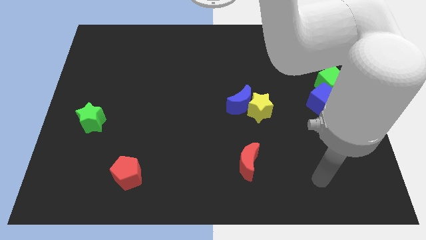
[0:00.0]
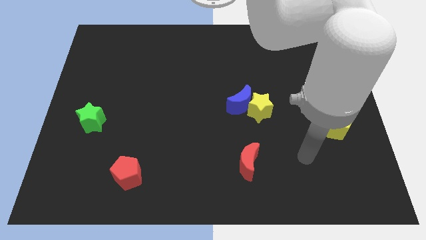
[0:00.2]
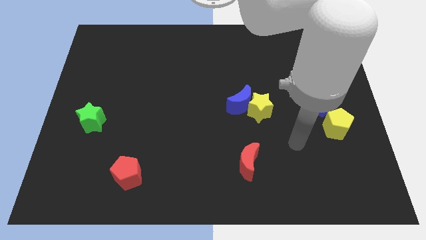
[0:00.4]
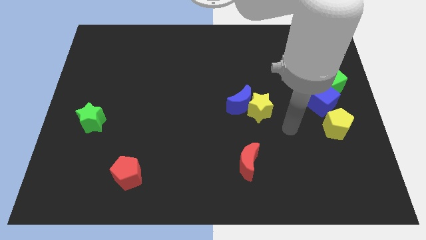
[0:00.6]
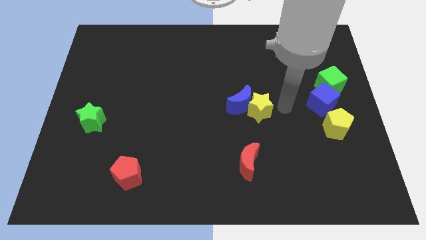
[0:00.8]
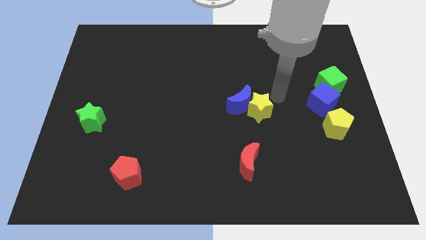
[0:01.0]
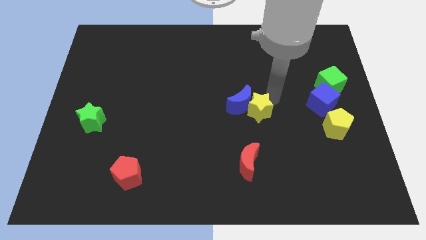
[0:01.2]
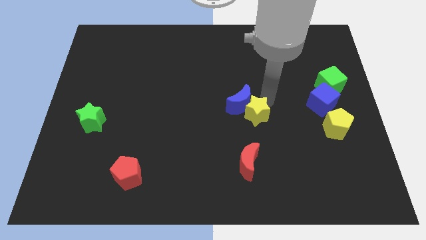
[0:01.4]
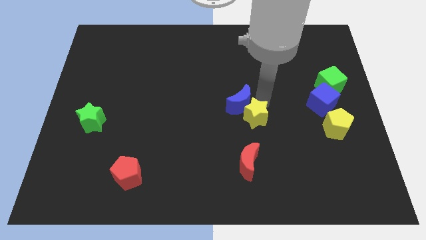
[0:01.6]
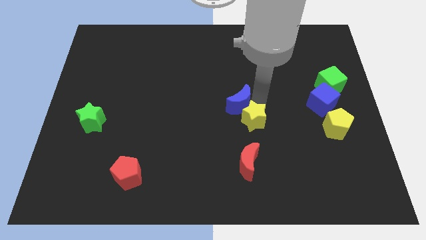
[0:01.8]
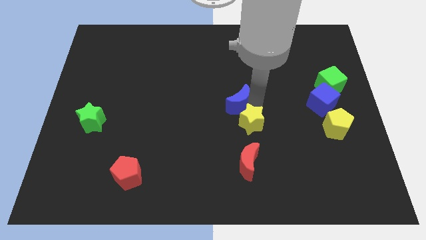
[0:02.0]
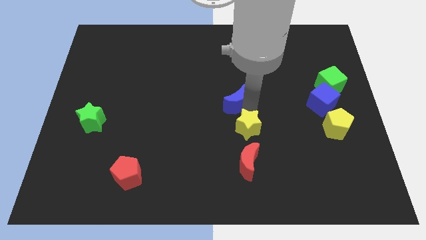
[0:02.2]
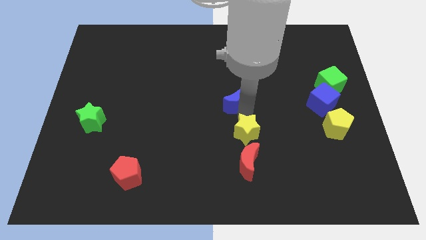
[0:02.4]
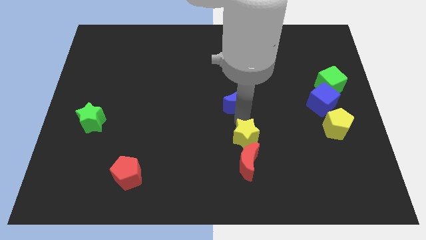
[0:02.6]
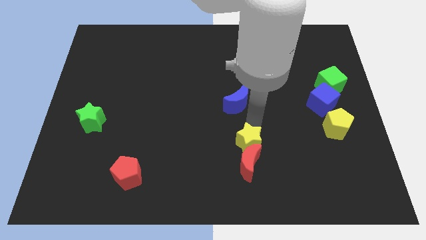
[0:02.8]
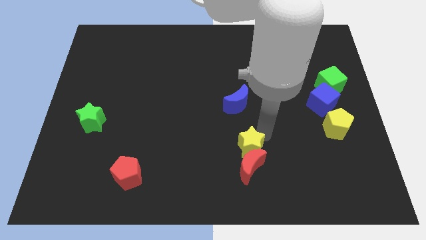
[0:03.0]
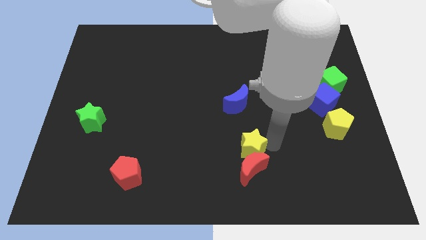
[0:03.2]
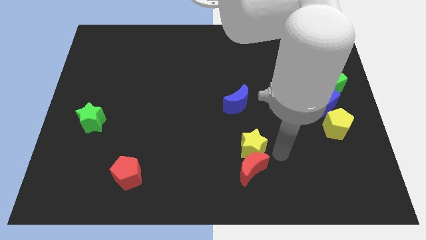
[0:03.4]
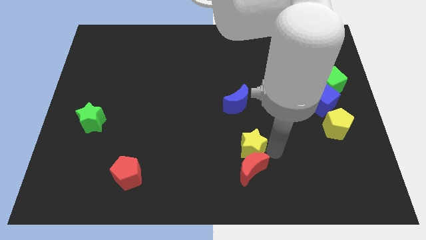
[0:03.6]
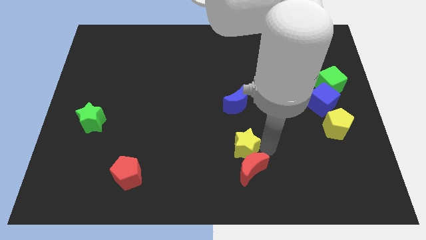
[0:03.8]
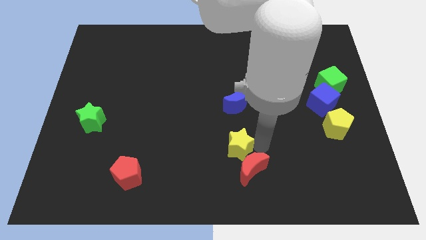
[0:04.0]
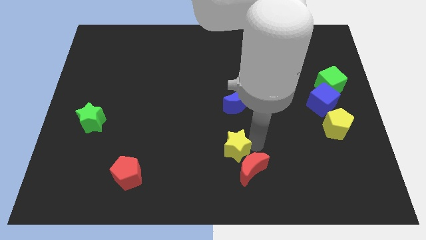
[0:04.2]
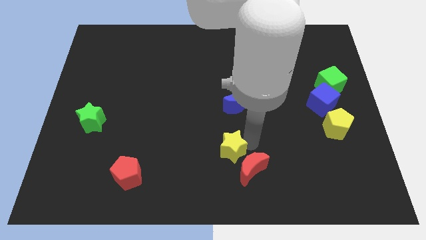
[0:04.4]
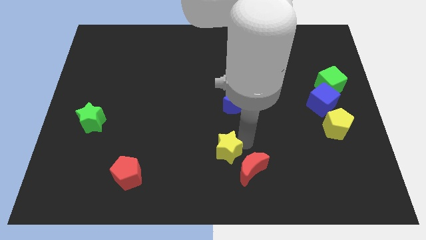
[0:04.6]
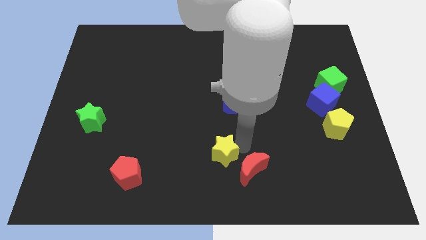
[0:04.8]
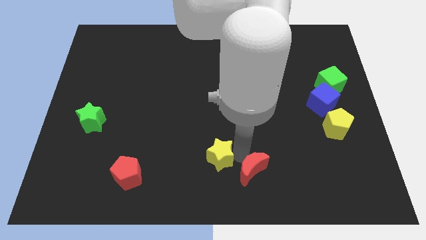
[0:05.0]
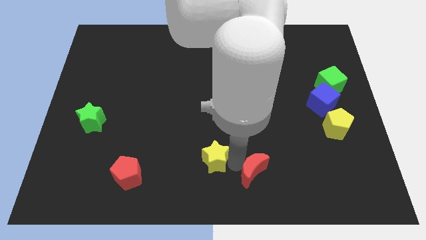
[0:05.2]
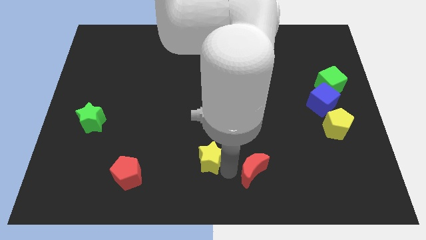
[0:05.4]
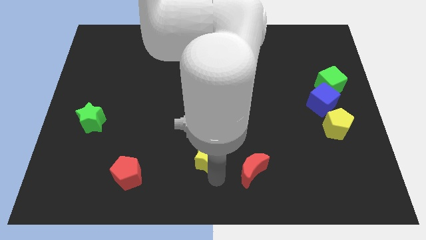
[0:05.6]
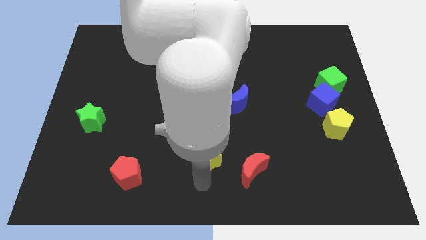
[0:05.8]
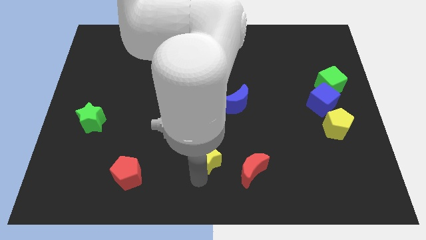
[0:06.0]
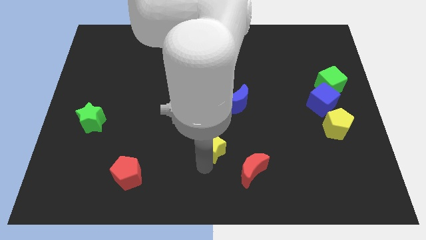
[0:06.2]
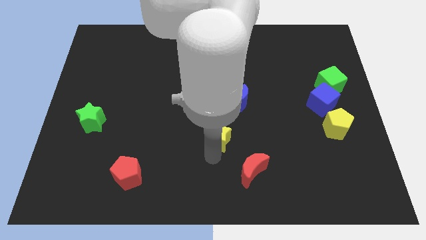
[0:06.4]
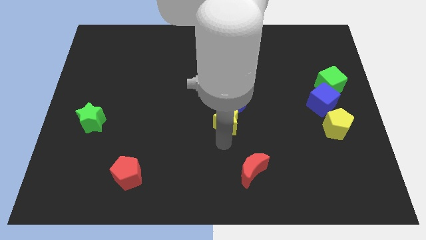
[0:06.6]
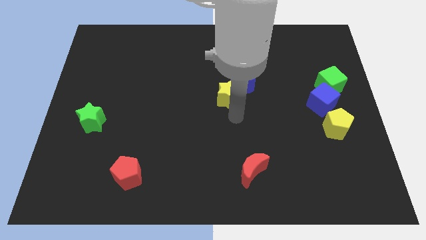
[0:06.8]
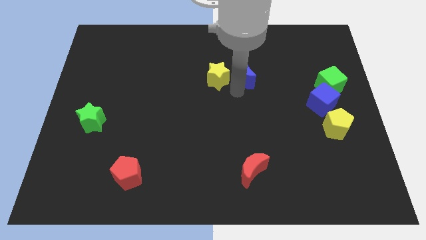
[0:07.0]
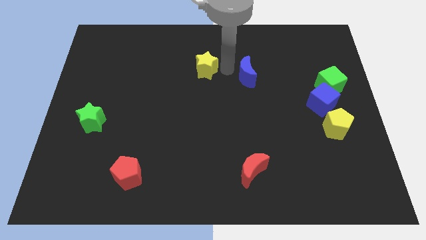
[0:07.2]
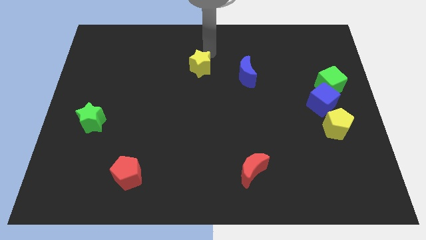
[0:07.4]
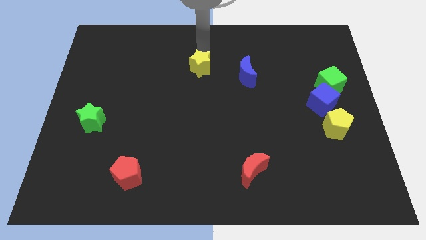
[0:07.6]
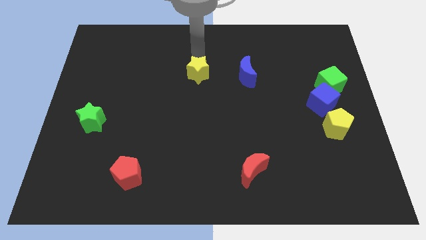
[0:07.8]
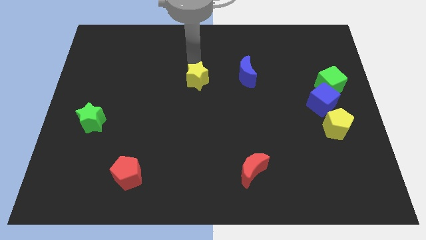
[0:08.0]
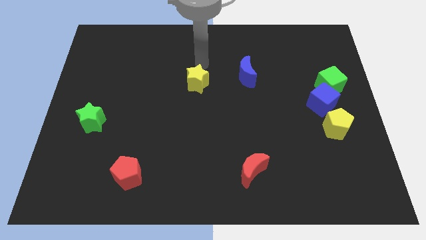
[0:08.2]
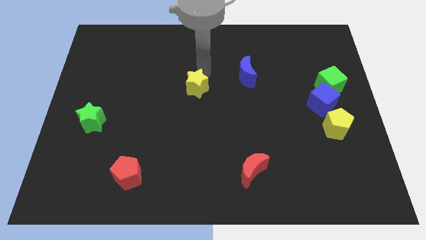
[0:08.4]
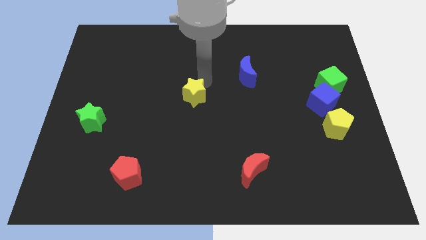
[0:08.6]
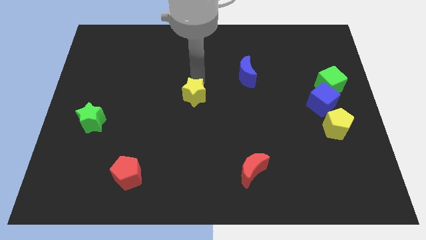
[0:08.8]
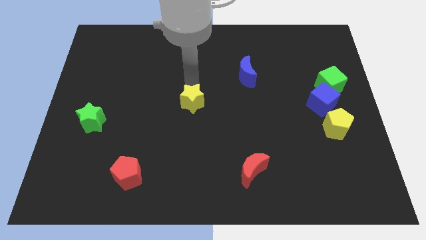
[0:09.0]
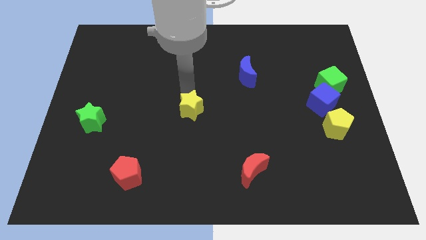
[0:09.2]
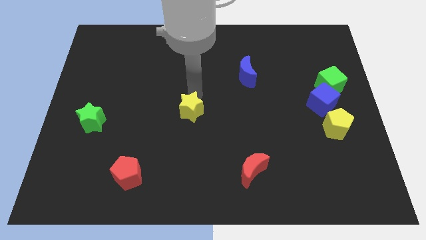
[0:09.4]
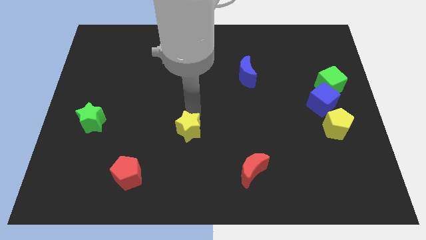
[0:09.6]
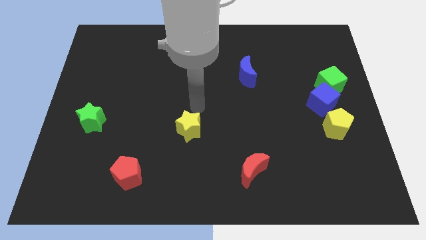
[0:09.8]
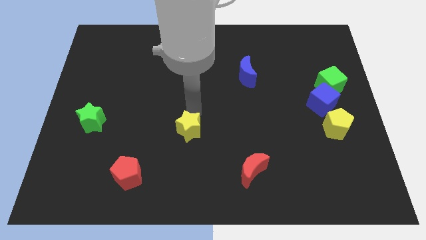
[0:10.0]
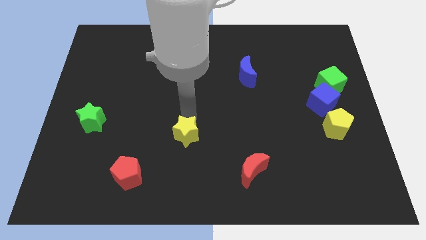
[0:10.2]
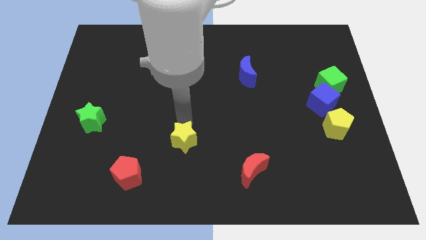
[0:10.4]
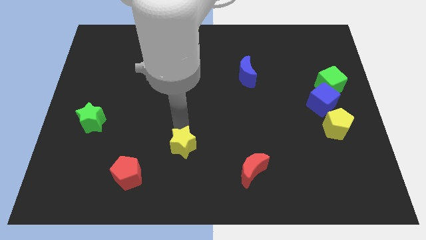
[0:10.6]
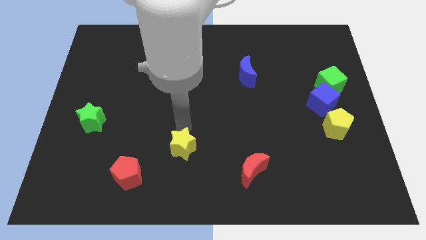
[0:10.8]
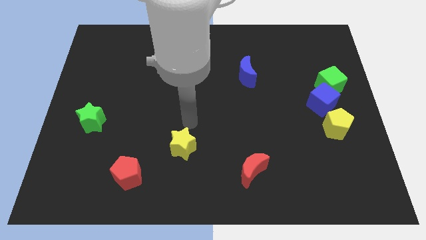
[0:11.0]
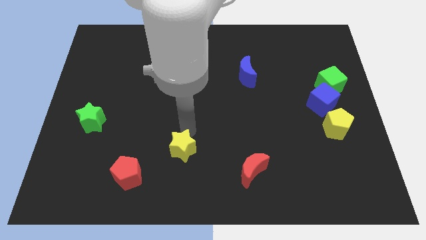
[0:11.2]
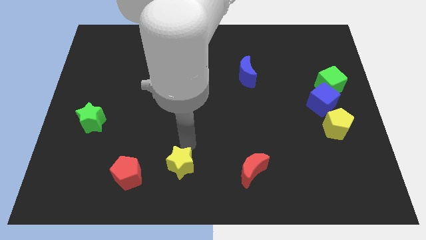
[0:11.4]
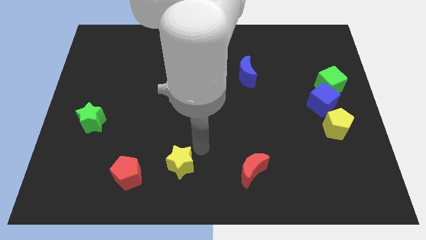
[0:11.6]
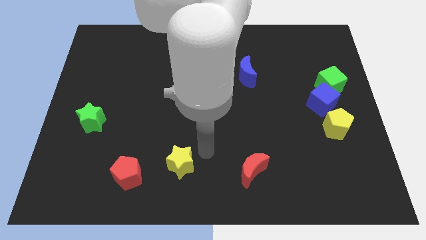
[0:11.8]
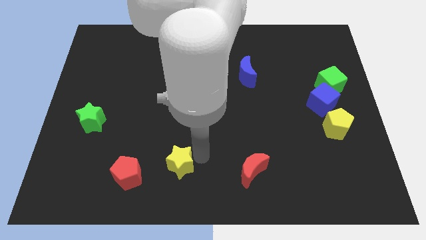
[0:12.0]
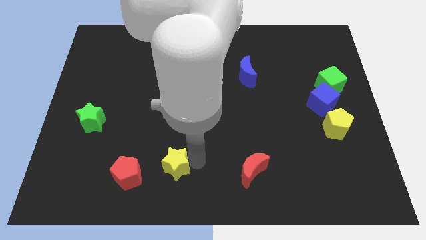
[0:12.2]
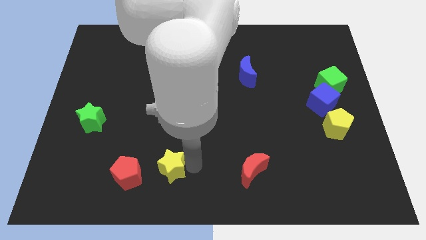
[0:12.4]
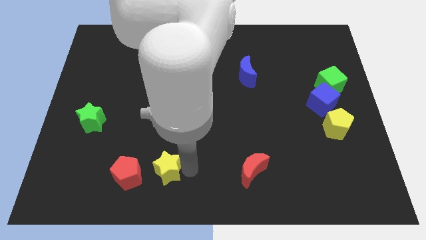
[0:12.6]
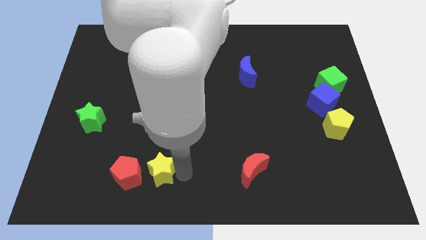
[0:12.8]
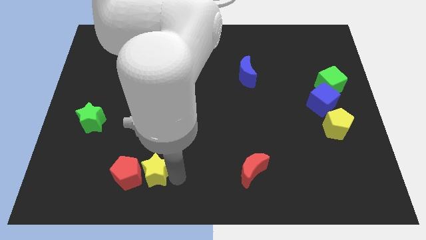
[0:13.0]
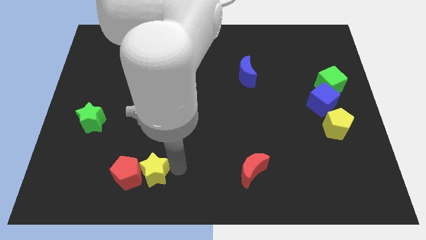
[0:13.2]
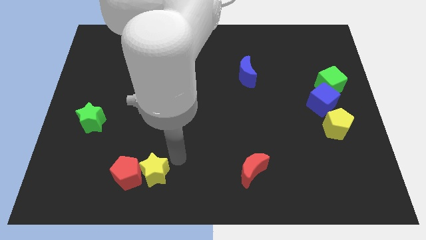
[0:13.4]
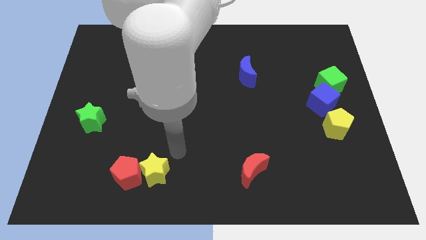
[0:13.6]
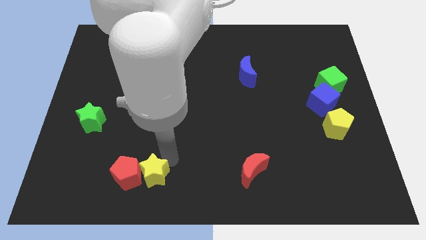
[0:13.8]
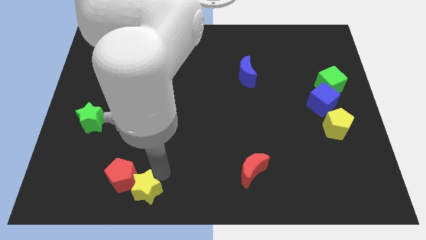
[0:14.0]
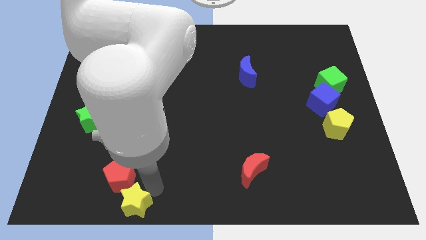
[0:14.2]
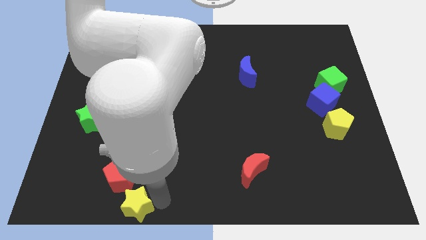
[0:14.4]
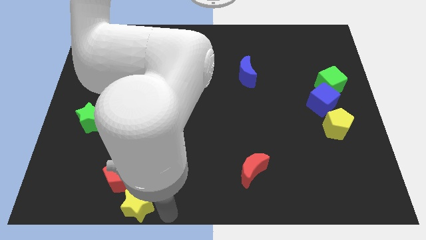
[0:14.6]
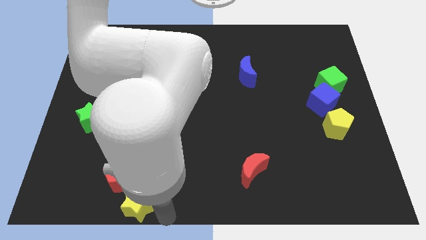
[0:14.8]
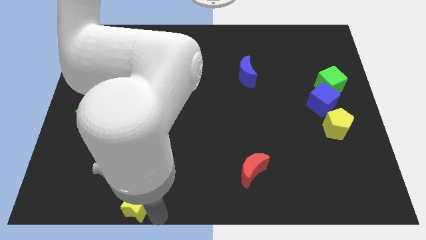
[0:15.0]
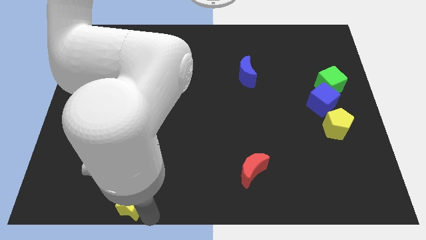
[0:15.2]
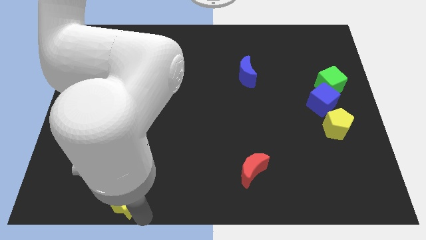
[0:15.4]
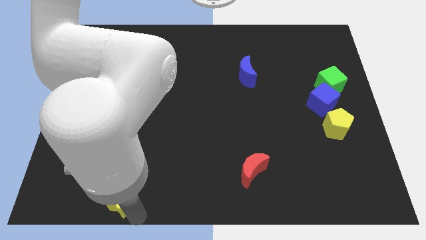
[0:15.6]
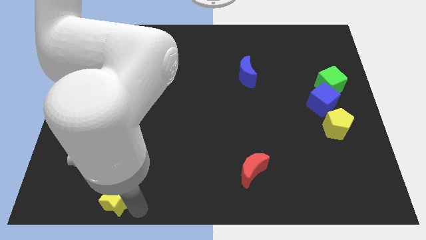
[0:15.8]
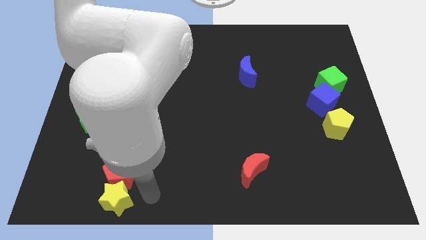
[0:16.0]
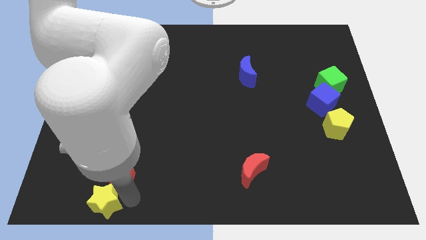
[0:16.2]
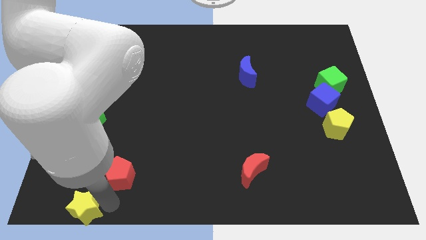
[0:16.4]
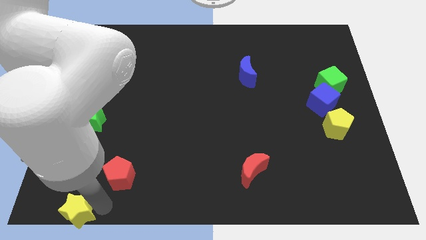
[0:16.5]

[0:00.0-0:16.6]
move the yellow star to the lower left corner
